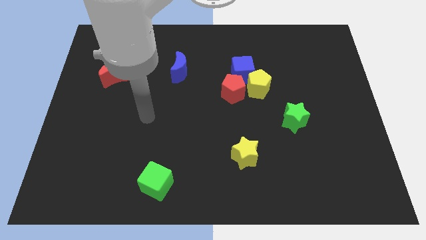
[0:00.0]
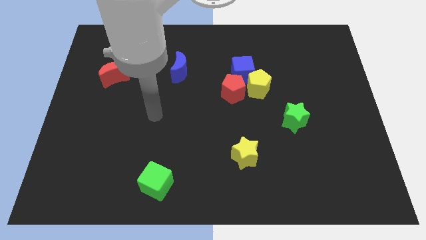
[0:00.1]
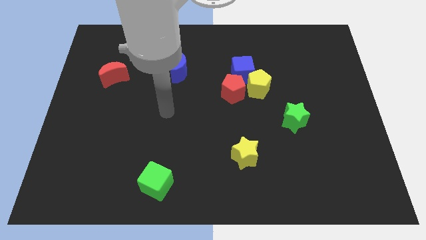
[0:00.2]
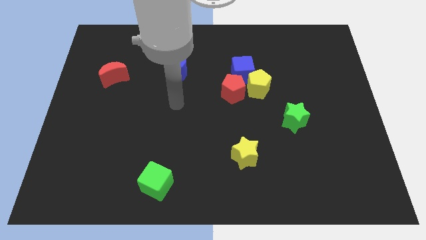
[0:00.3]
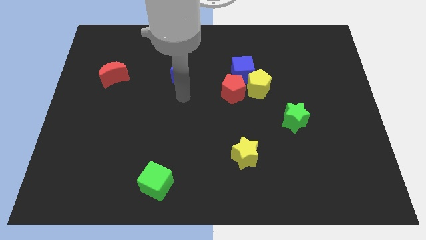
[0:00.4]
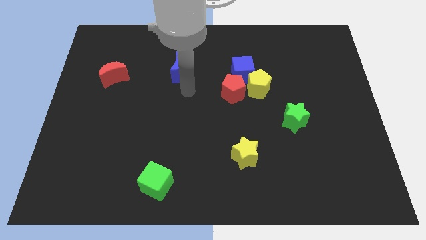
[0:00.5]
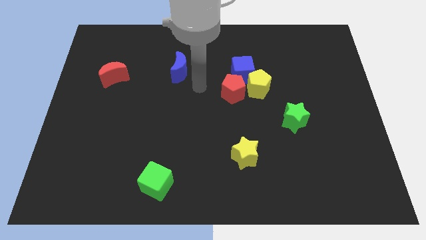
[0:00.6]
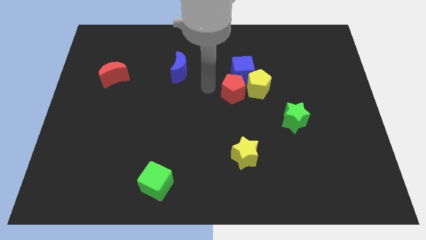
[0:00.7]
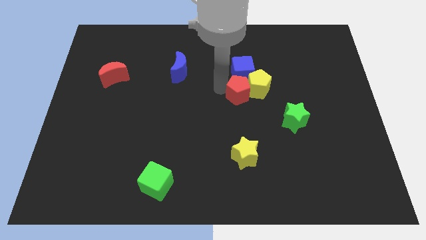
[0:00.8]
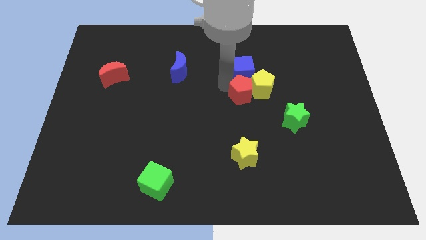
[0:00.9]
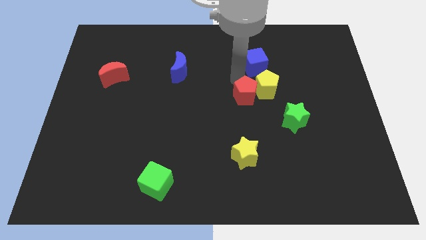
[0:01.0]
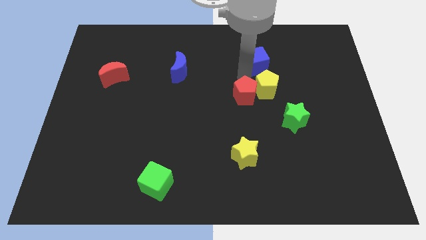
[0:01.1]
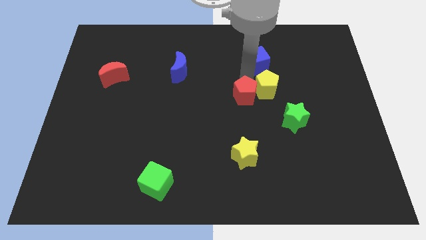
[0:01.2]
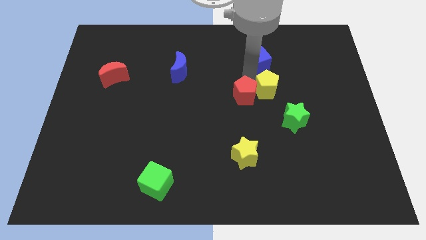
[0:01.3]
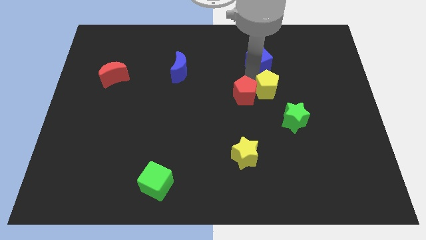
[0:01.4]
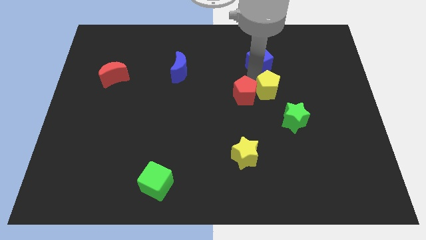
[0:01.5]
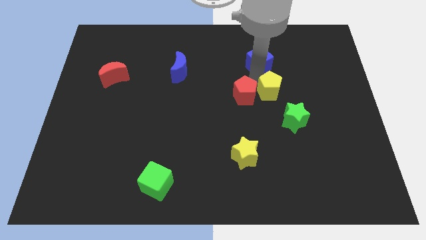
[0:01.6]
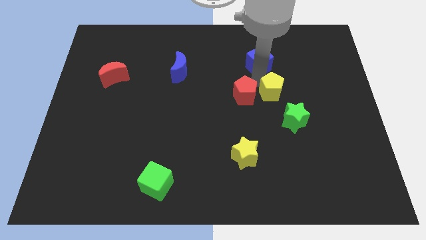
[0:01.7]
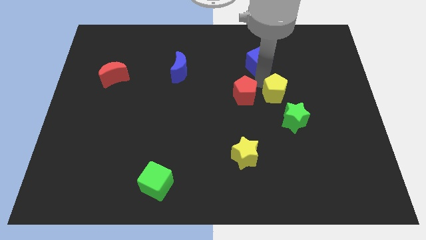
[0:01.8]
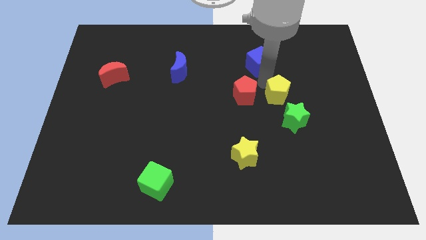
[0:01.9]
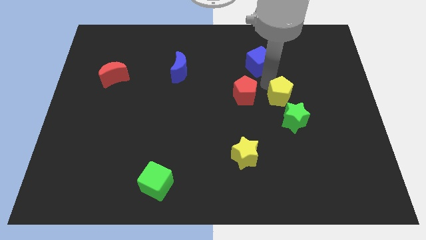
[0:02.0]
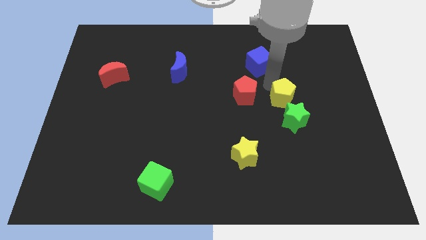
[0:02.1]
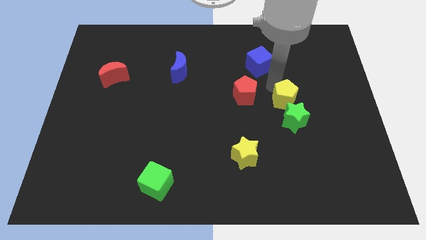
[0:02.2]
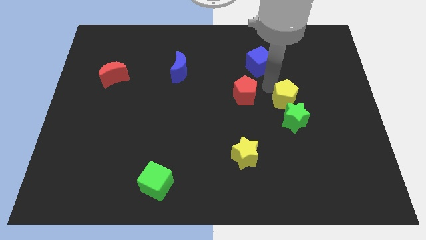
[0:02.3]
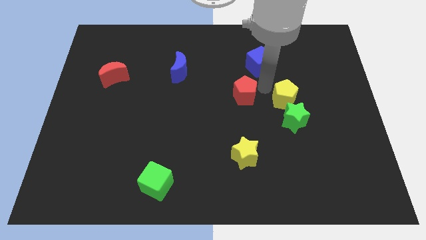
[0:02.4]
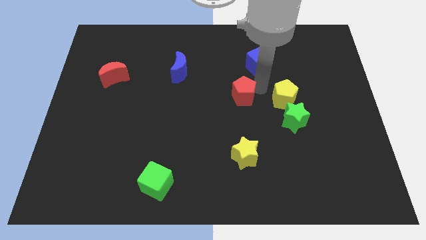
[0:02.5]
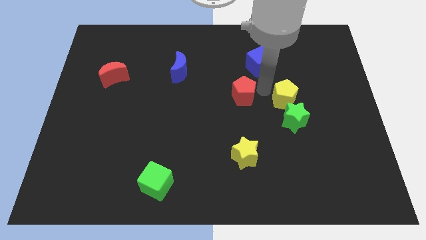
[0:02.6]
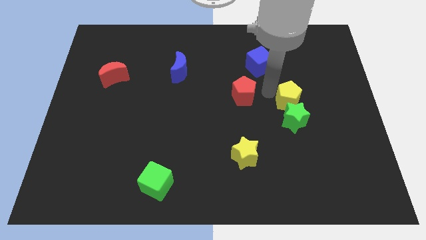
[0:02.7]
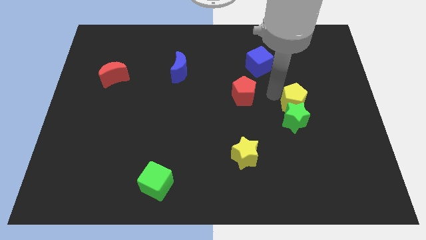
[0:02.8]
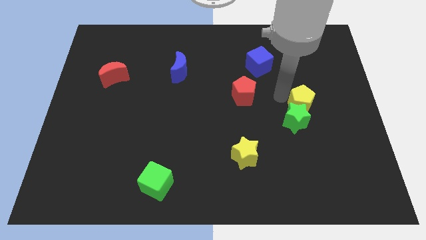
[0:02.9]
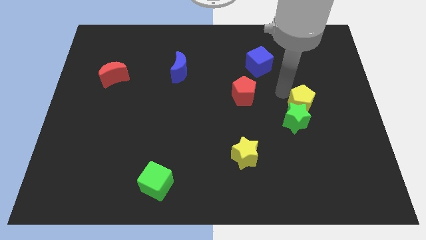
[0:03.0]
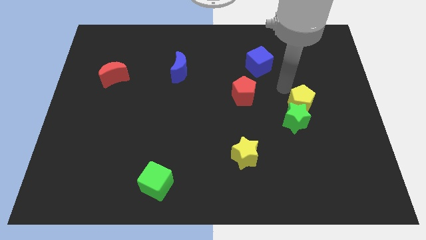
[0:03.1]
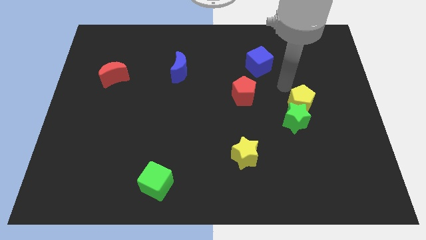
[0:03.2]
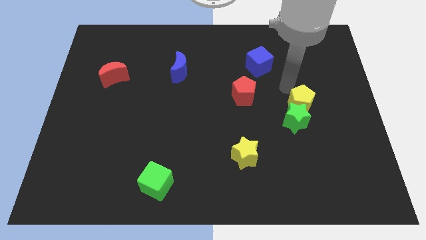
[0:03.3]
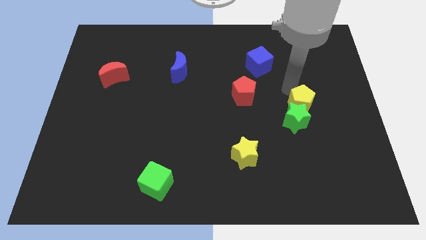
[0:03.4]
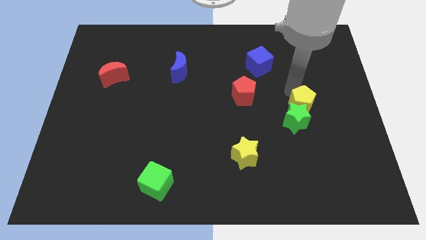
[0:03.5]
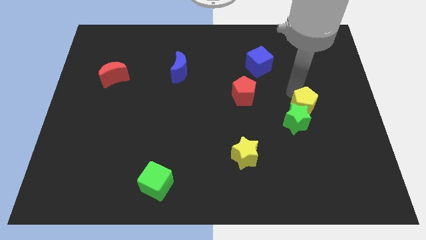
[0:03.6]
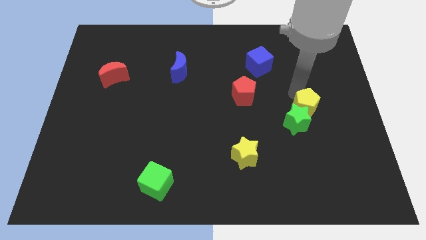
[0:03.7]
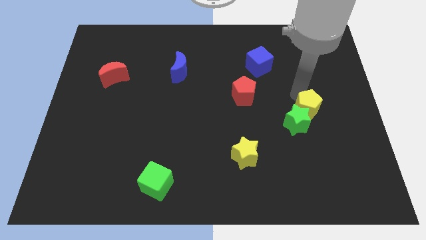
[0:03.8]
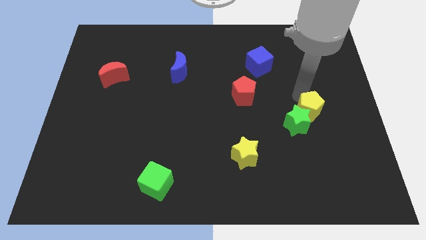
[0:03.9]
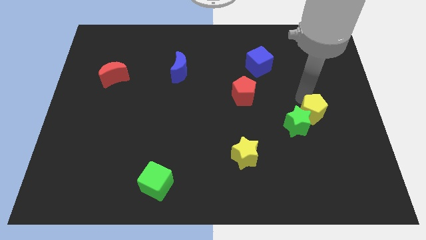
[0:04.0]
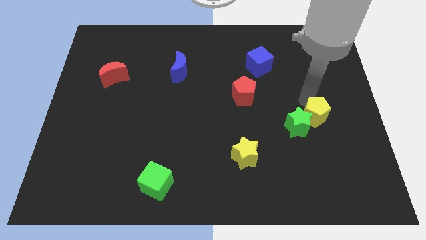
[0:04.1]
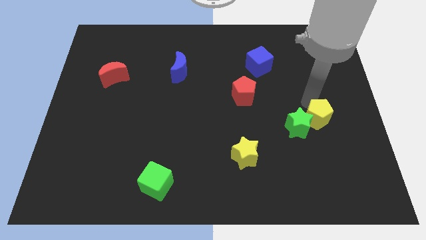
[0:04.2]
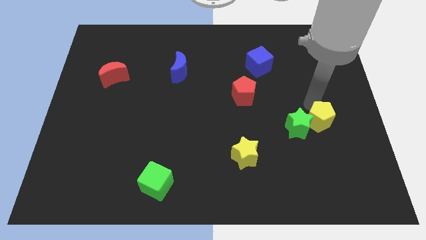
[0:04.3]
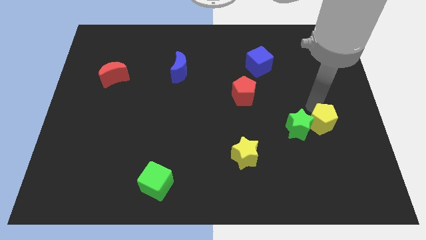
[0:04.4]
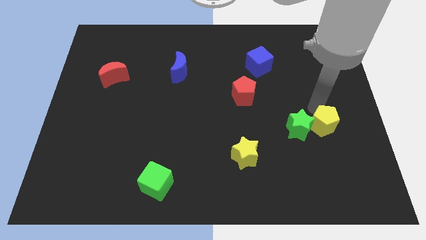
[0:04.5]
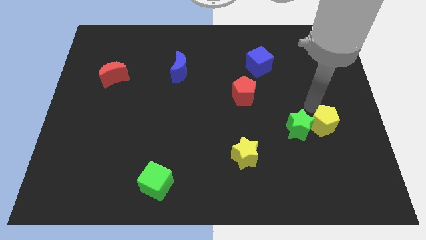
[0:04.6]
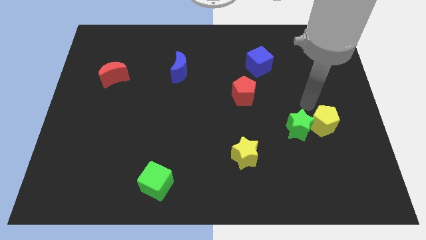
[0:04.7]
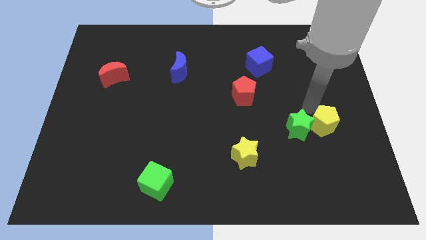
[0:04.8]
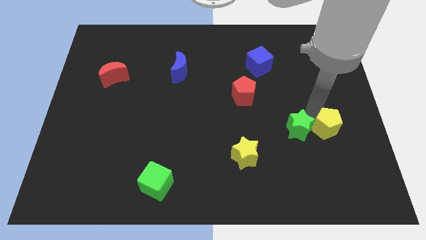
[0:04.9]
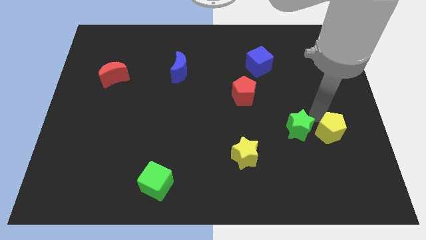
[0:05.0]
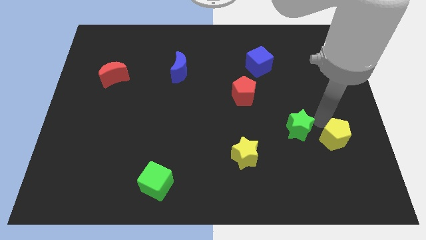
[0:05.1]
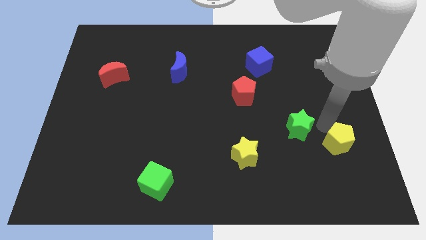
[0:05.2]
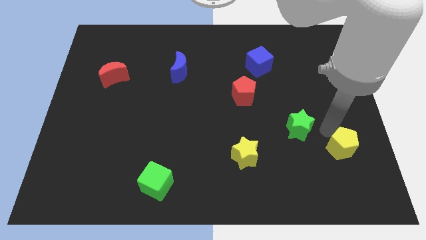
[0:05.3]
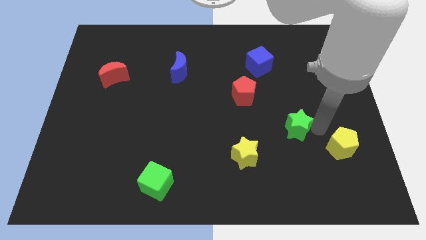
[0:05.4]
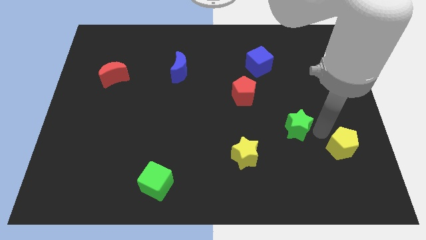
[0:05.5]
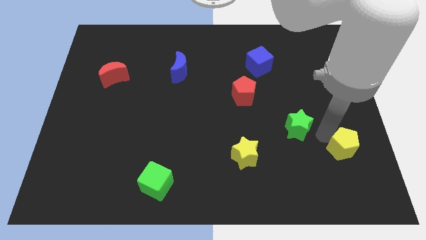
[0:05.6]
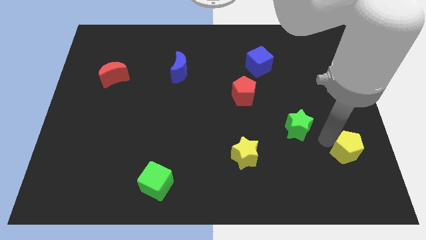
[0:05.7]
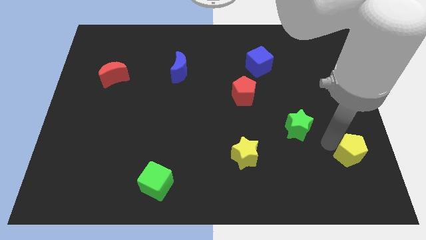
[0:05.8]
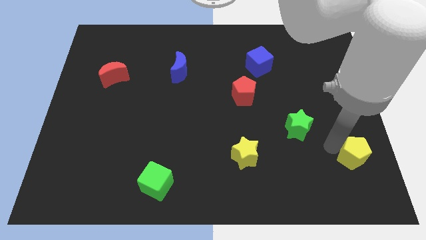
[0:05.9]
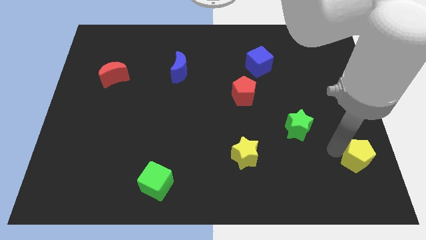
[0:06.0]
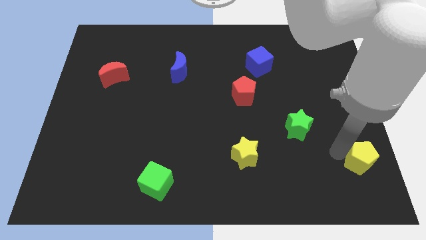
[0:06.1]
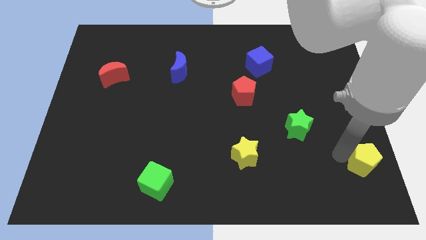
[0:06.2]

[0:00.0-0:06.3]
move the yellow pentagon to the bottom right of the board
